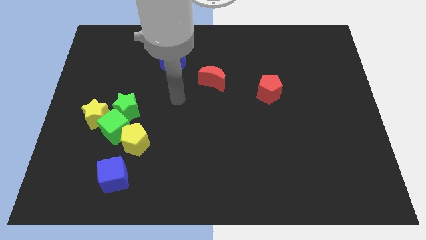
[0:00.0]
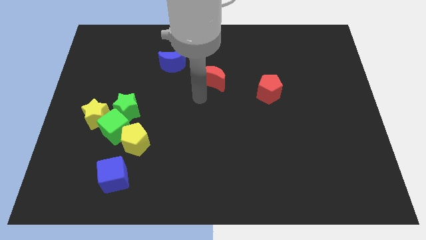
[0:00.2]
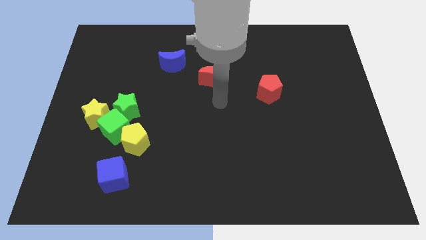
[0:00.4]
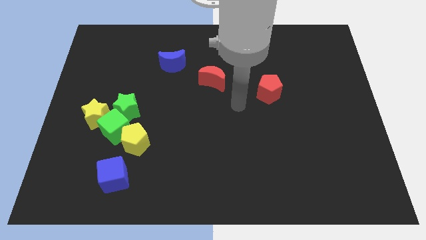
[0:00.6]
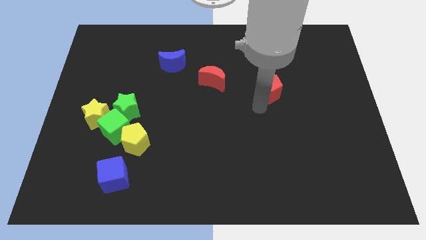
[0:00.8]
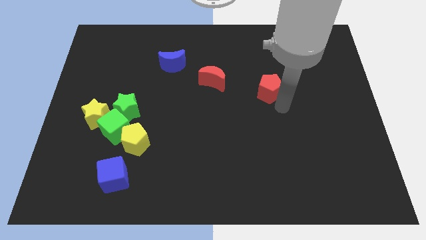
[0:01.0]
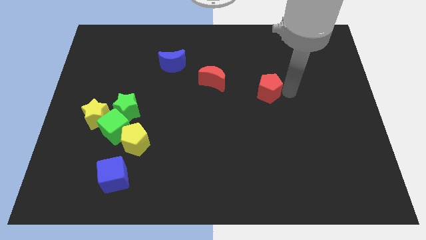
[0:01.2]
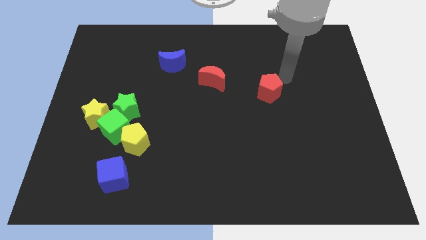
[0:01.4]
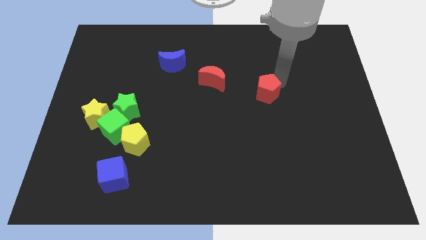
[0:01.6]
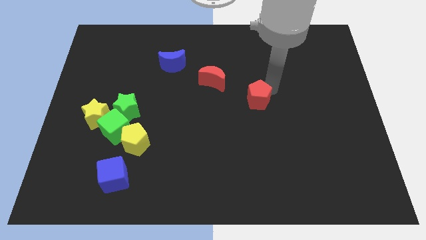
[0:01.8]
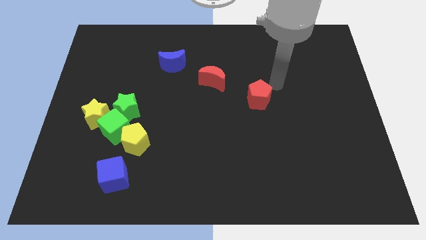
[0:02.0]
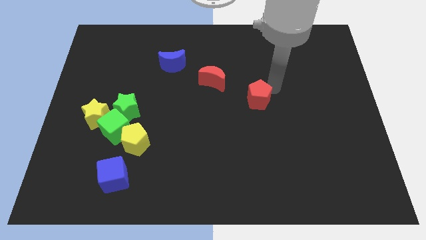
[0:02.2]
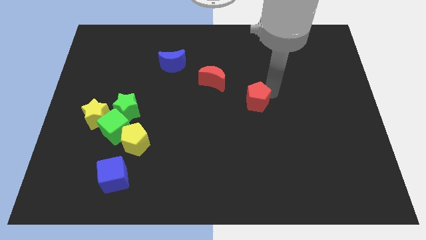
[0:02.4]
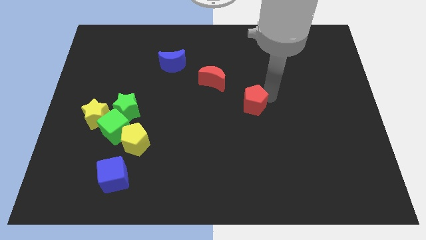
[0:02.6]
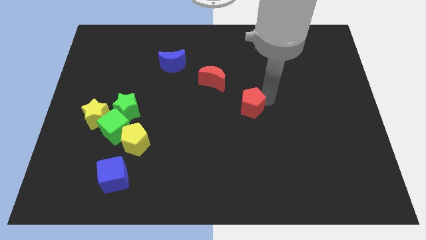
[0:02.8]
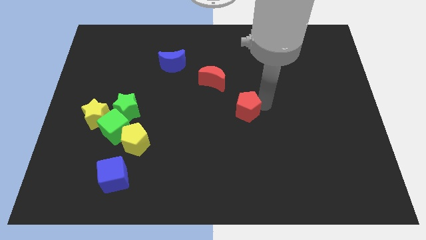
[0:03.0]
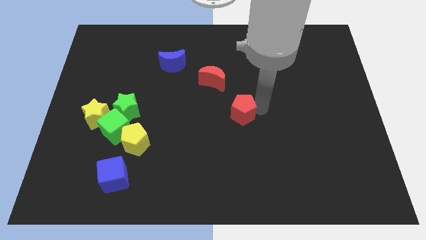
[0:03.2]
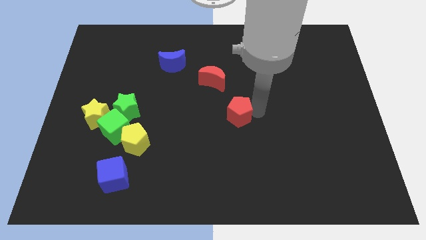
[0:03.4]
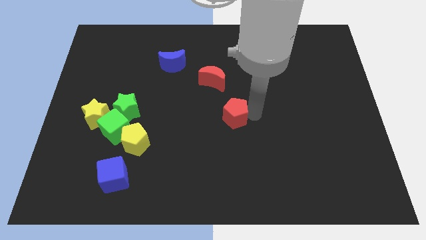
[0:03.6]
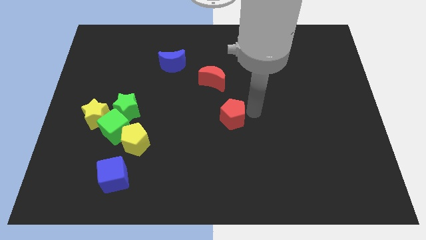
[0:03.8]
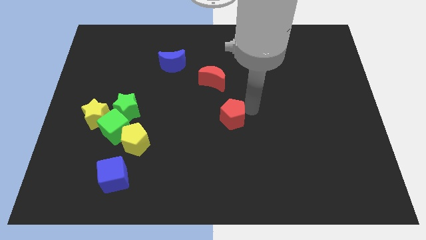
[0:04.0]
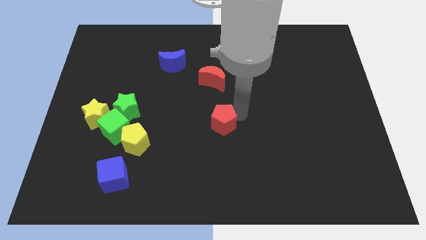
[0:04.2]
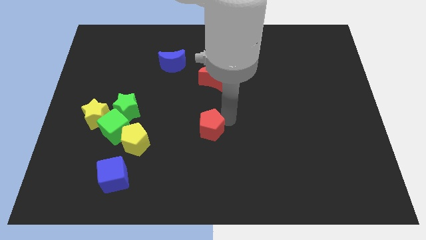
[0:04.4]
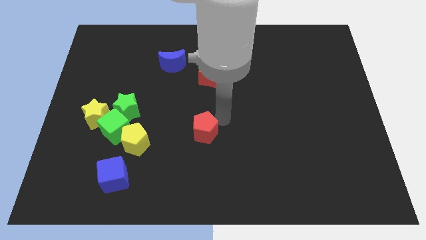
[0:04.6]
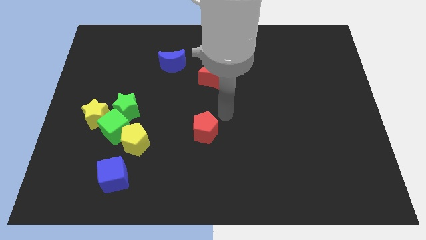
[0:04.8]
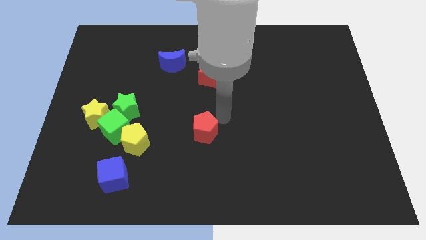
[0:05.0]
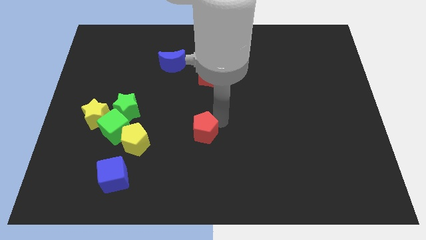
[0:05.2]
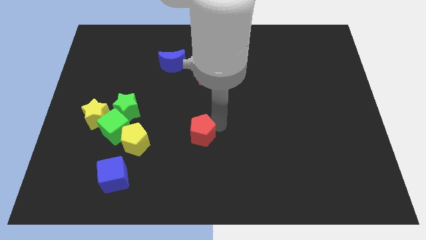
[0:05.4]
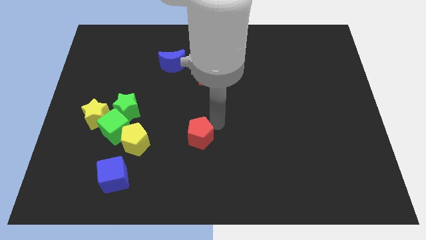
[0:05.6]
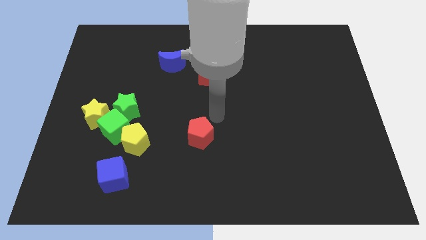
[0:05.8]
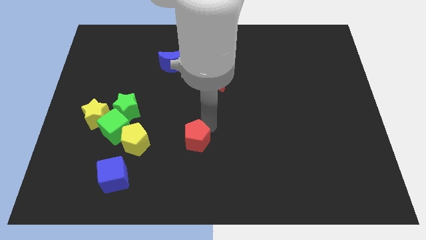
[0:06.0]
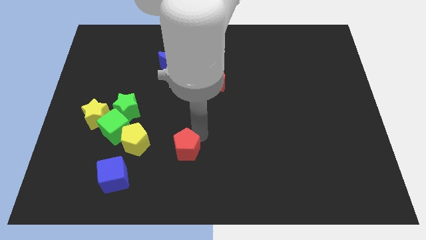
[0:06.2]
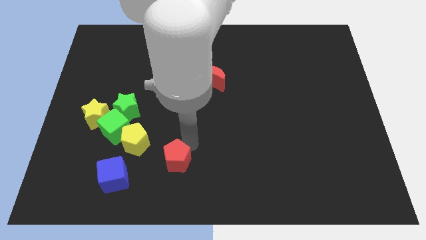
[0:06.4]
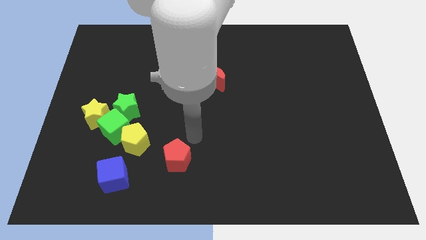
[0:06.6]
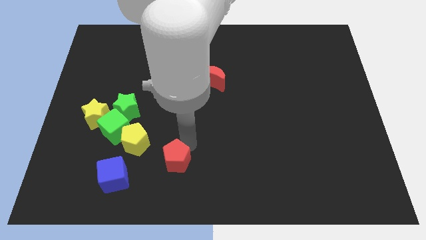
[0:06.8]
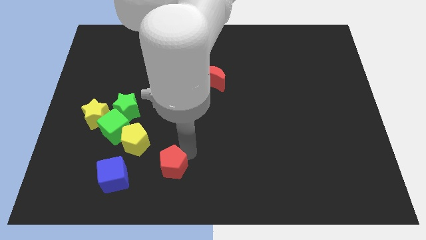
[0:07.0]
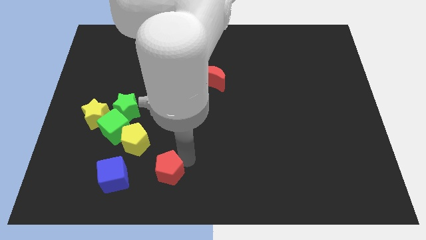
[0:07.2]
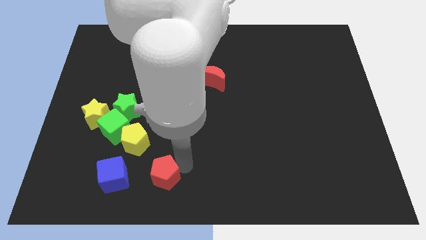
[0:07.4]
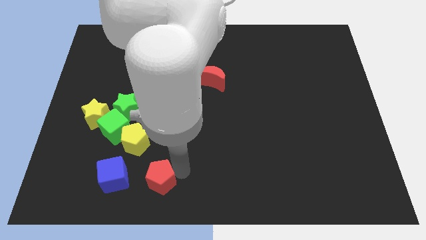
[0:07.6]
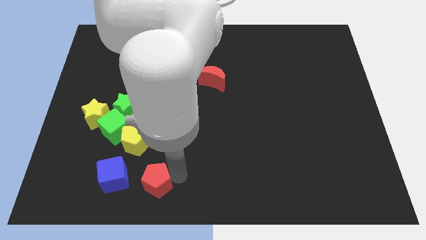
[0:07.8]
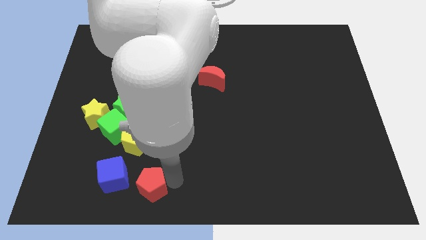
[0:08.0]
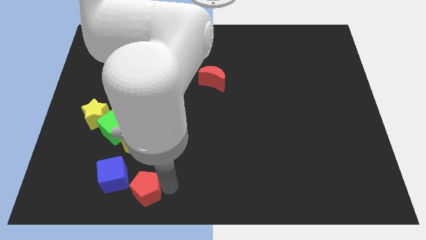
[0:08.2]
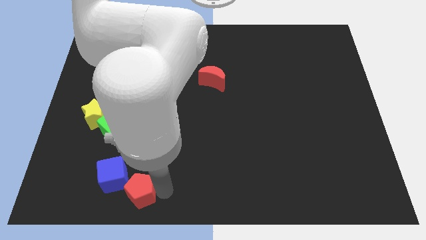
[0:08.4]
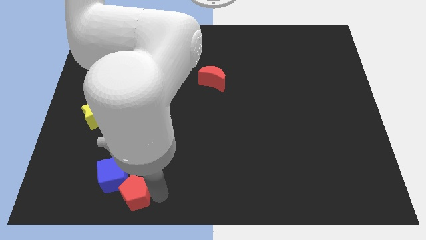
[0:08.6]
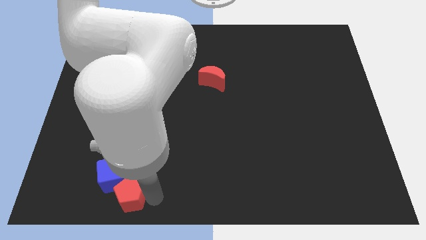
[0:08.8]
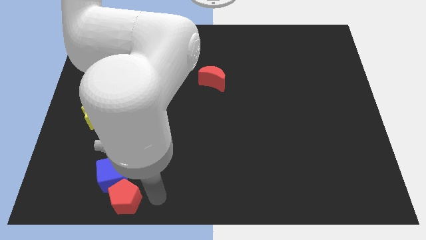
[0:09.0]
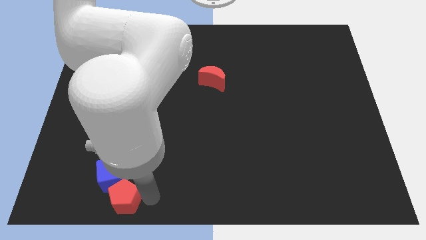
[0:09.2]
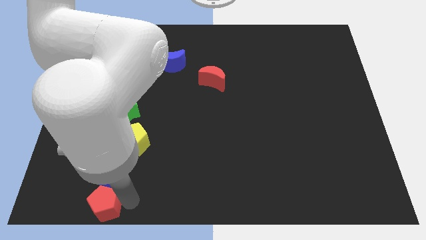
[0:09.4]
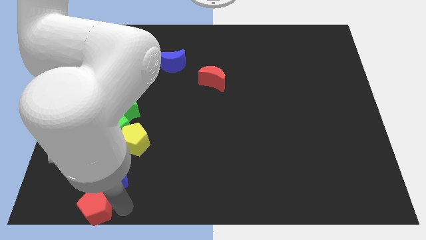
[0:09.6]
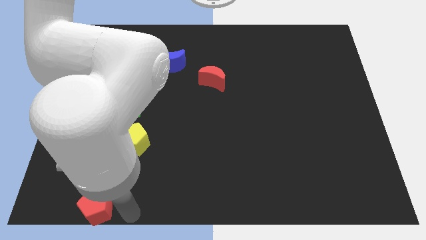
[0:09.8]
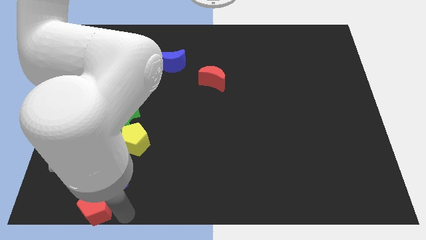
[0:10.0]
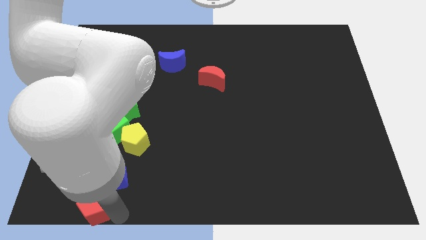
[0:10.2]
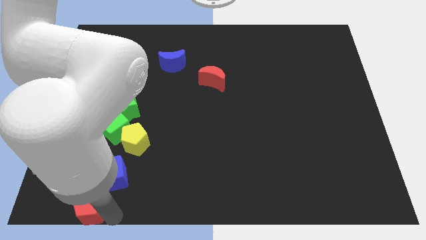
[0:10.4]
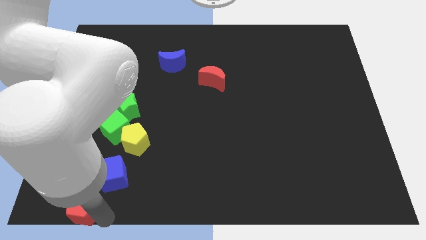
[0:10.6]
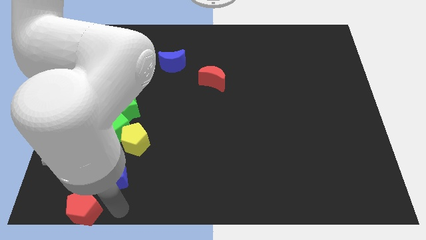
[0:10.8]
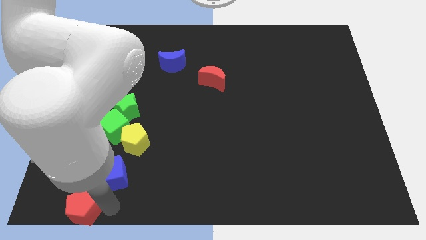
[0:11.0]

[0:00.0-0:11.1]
push the red pentagon to the lower left corner

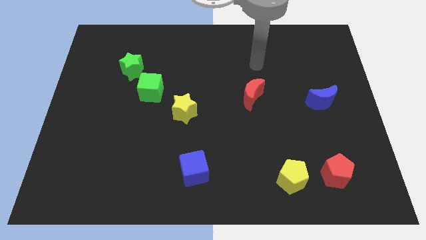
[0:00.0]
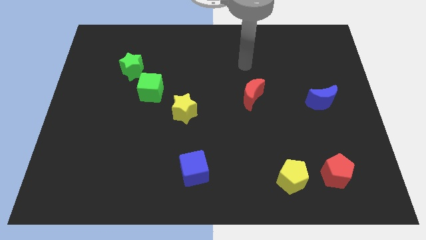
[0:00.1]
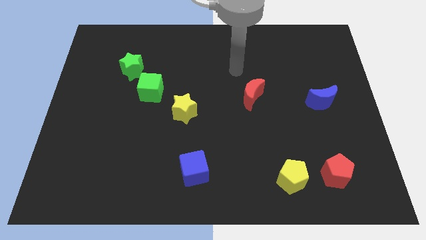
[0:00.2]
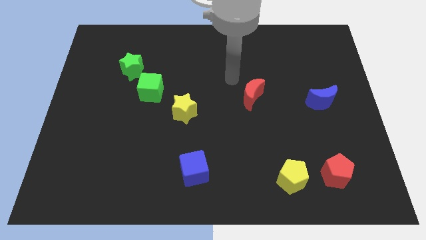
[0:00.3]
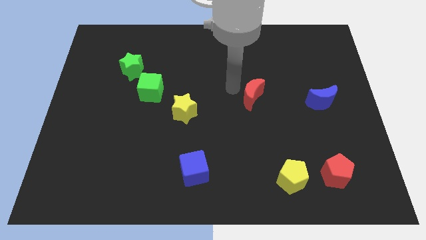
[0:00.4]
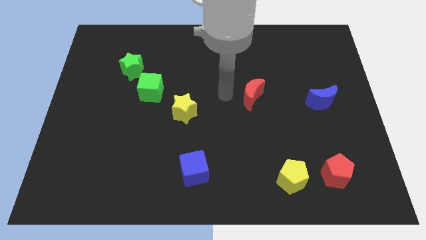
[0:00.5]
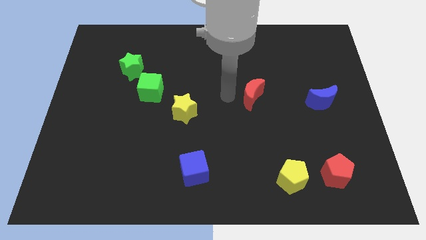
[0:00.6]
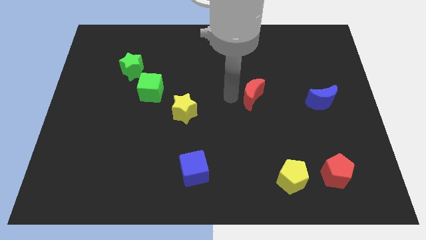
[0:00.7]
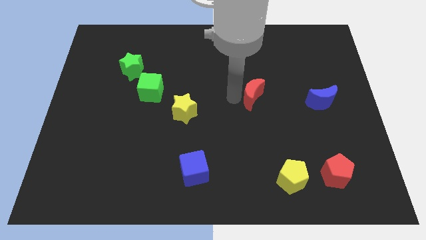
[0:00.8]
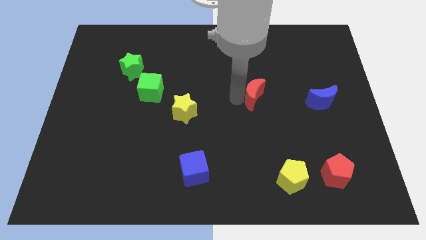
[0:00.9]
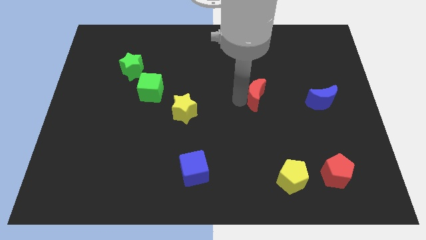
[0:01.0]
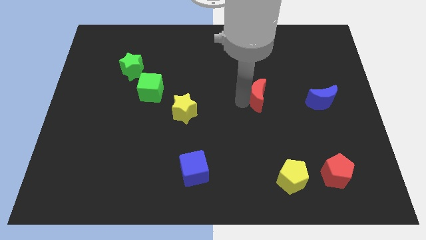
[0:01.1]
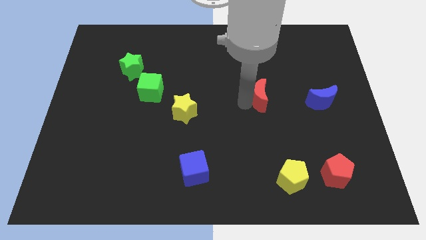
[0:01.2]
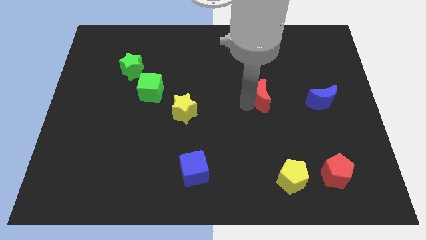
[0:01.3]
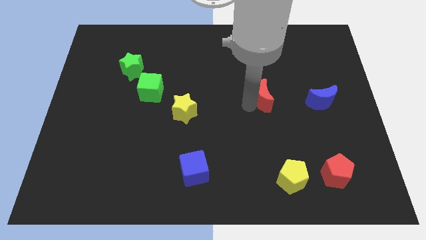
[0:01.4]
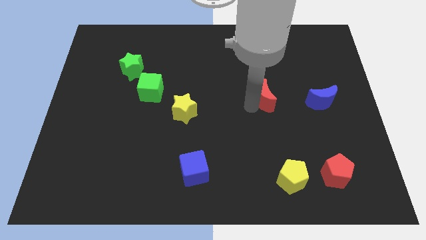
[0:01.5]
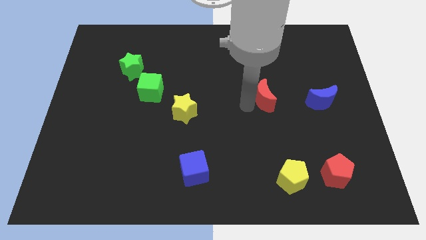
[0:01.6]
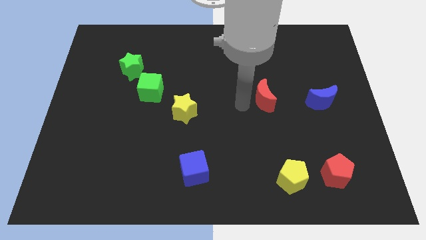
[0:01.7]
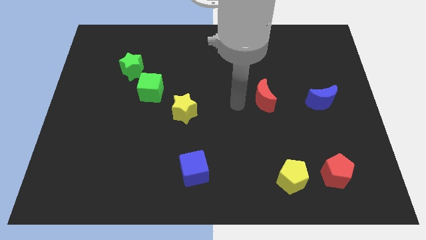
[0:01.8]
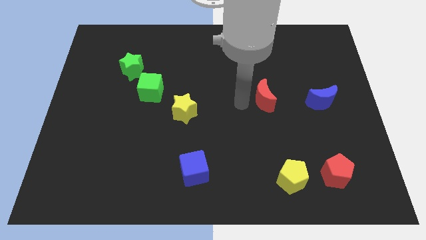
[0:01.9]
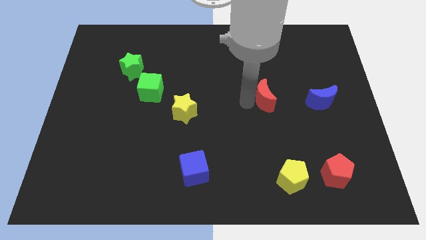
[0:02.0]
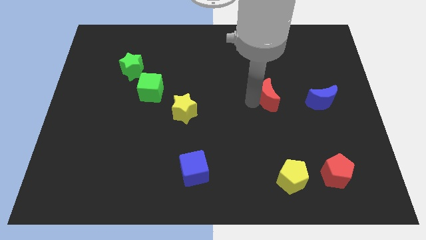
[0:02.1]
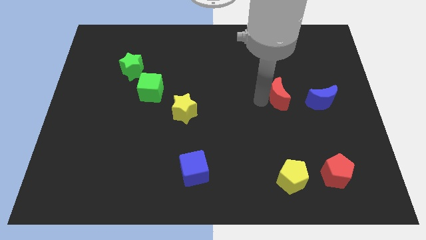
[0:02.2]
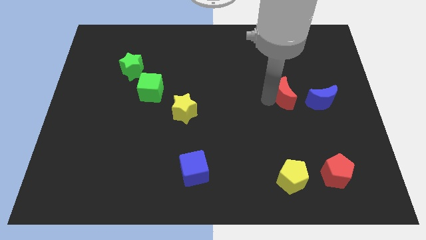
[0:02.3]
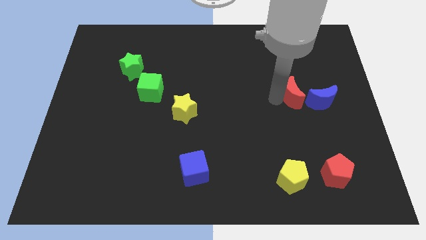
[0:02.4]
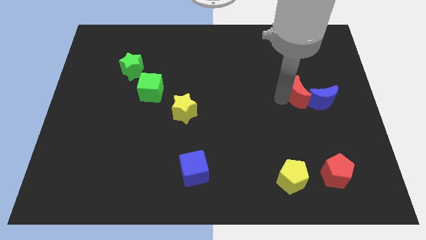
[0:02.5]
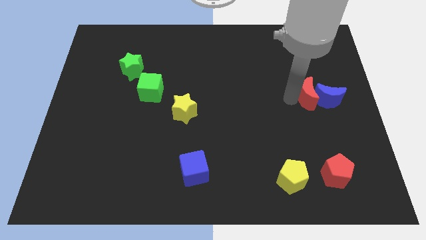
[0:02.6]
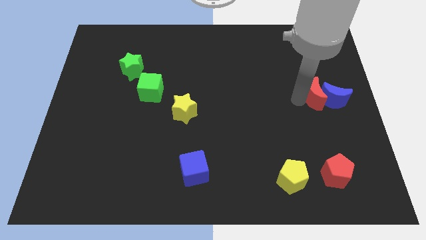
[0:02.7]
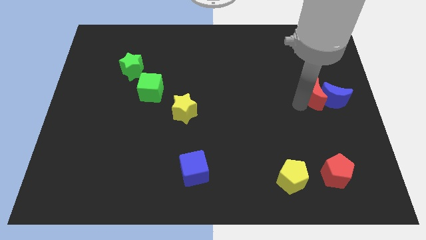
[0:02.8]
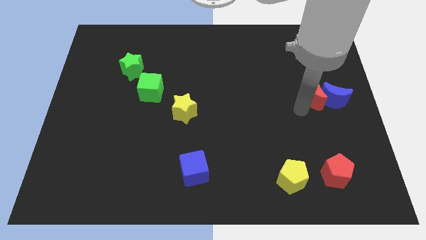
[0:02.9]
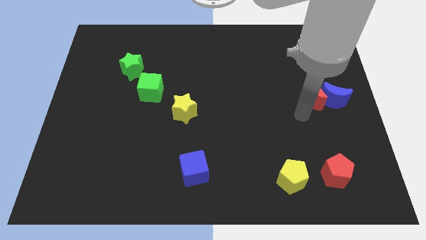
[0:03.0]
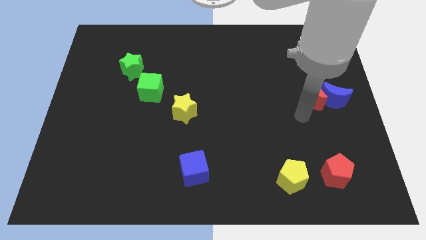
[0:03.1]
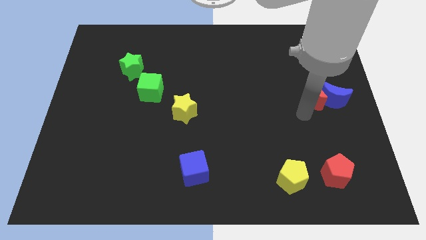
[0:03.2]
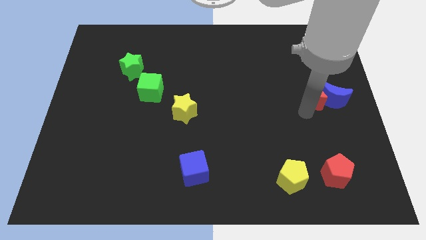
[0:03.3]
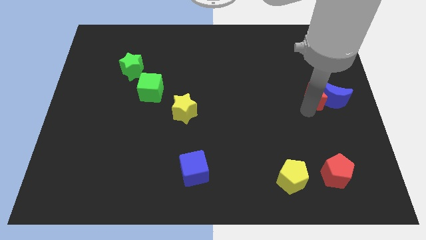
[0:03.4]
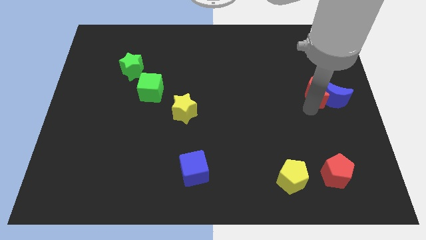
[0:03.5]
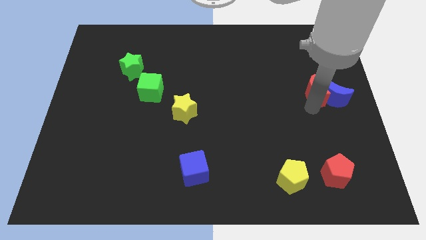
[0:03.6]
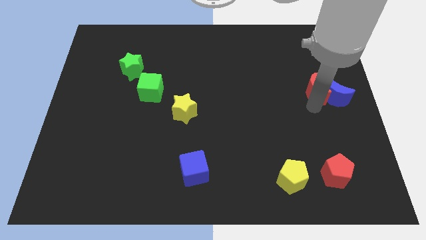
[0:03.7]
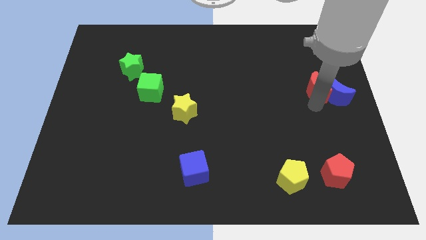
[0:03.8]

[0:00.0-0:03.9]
move the red moon to the right side of the board
